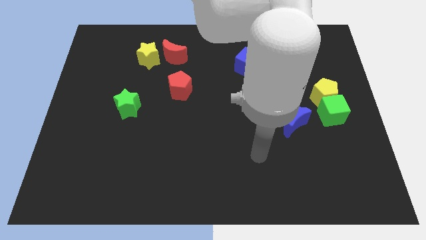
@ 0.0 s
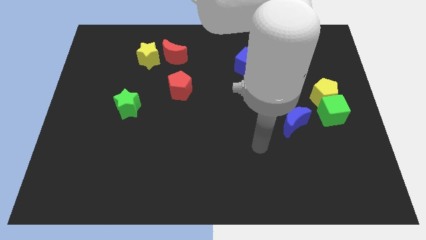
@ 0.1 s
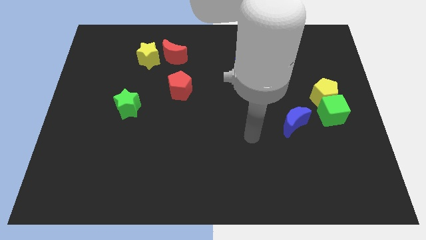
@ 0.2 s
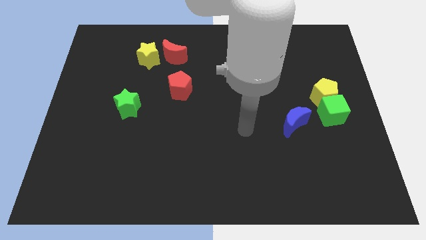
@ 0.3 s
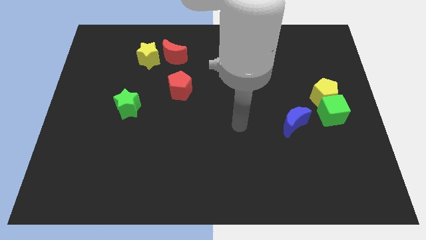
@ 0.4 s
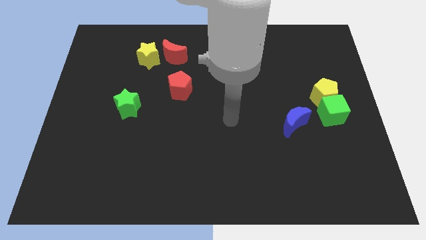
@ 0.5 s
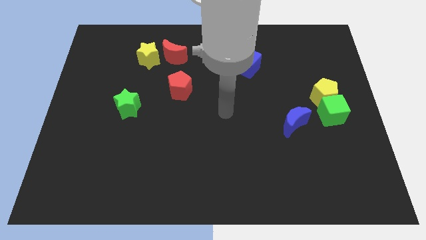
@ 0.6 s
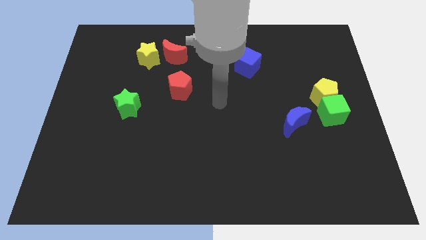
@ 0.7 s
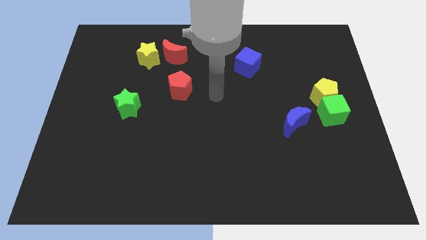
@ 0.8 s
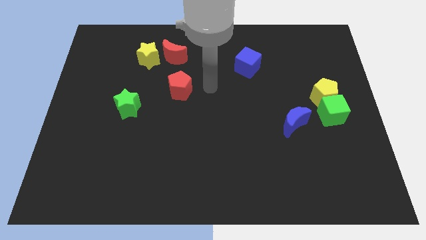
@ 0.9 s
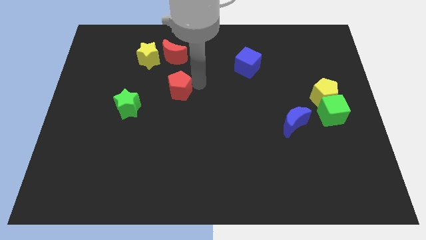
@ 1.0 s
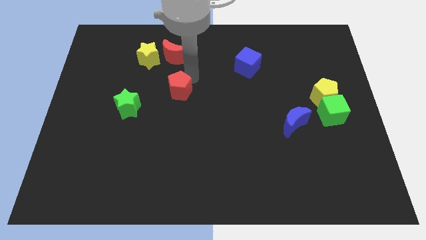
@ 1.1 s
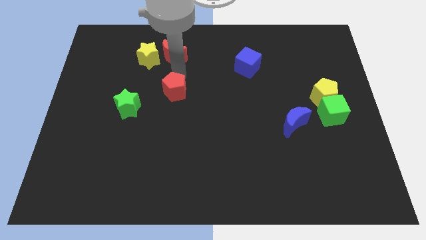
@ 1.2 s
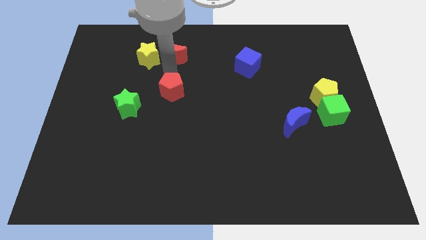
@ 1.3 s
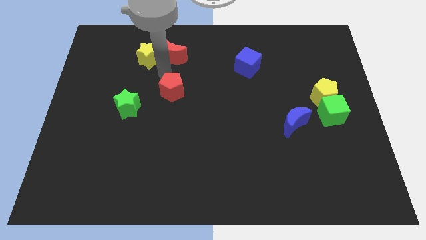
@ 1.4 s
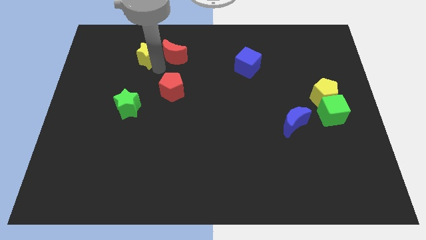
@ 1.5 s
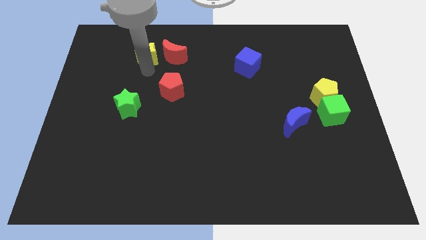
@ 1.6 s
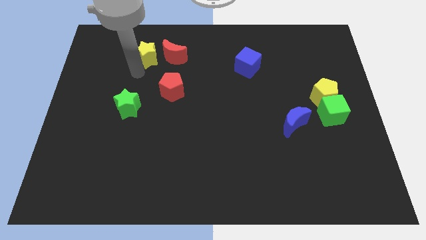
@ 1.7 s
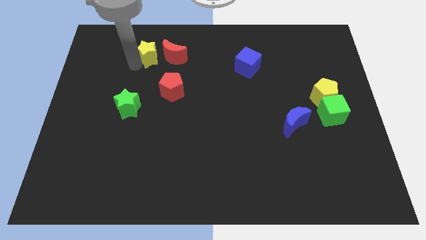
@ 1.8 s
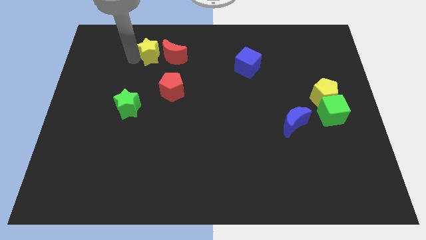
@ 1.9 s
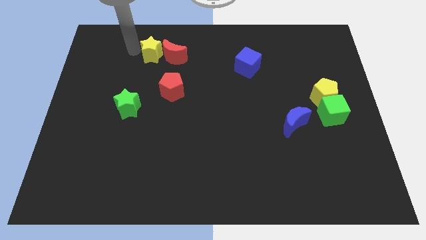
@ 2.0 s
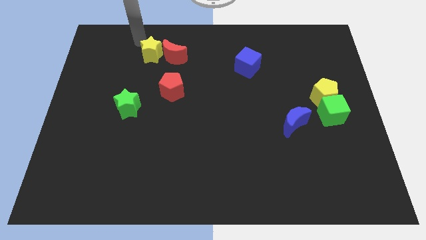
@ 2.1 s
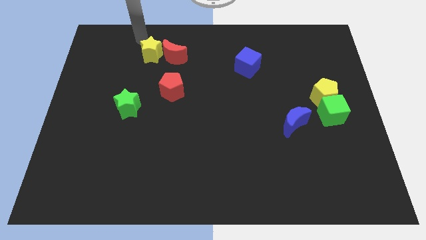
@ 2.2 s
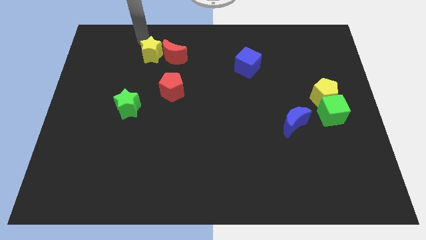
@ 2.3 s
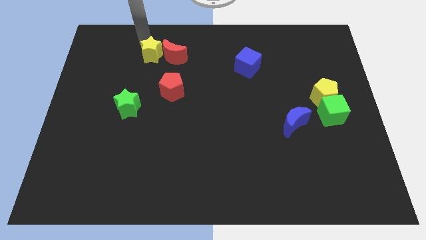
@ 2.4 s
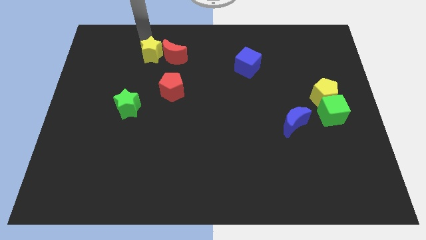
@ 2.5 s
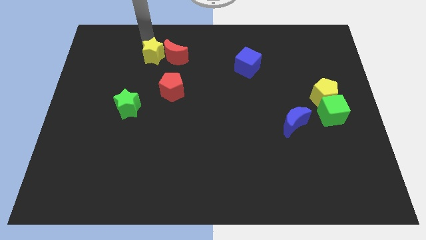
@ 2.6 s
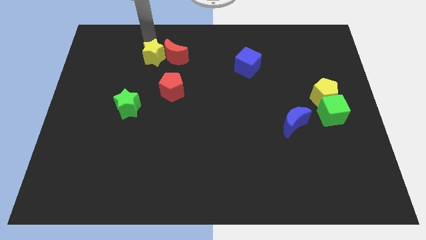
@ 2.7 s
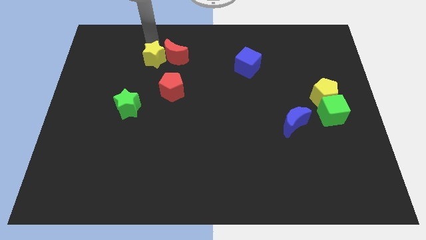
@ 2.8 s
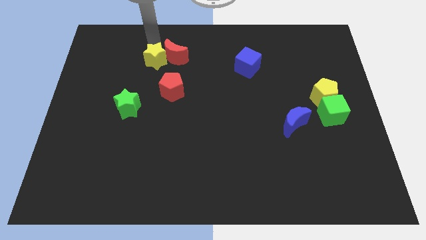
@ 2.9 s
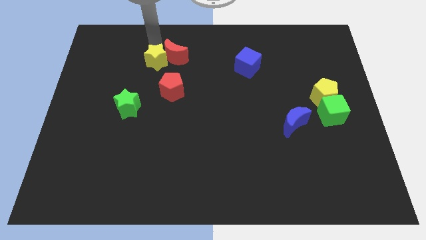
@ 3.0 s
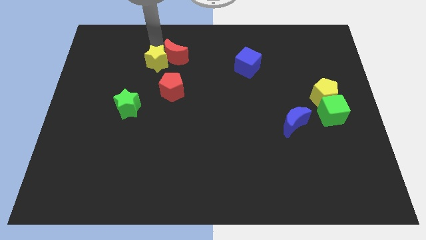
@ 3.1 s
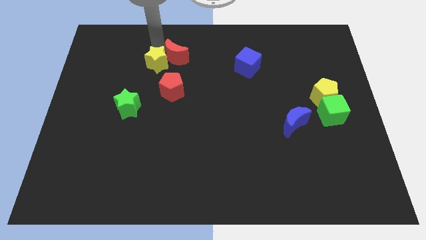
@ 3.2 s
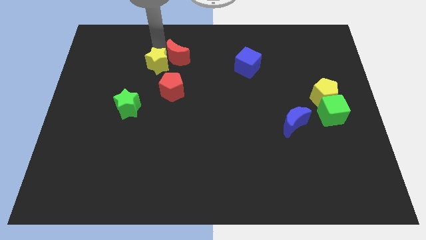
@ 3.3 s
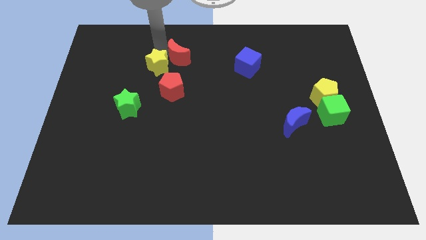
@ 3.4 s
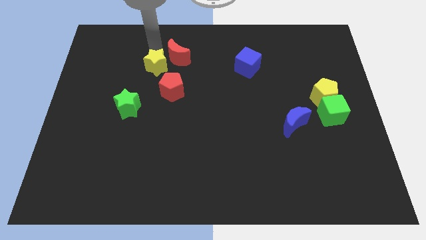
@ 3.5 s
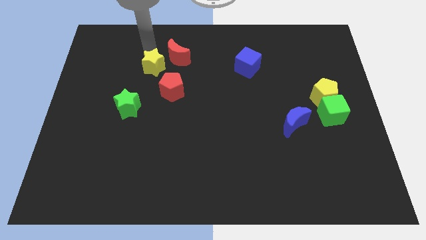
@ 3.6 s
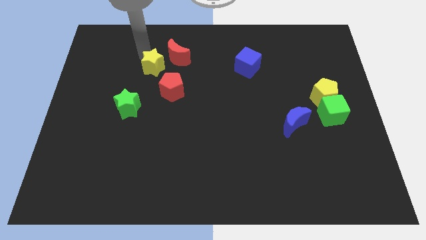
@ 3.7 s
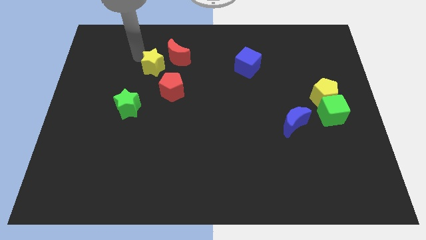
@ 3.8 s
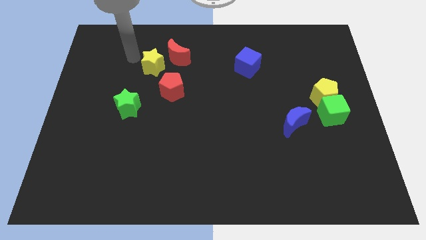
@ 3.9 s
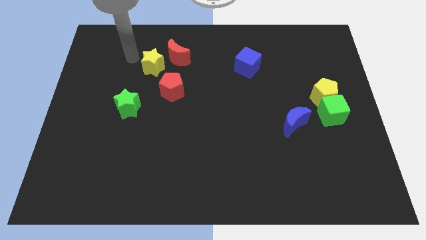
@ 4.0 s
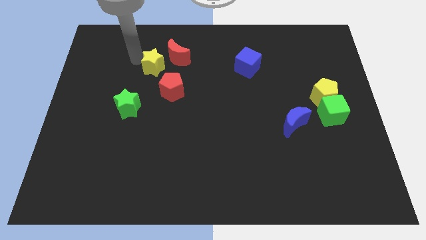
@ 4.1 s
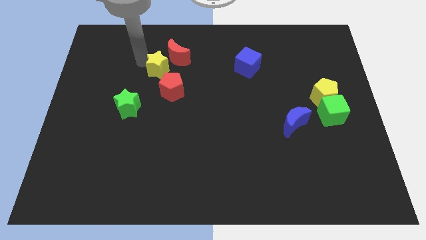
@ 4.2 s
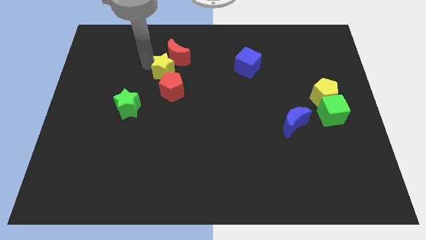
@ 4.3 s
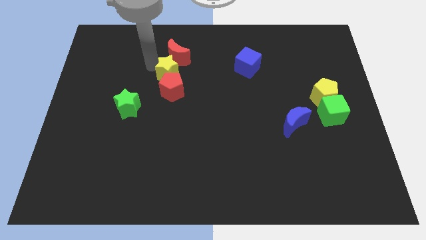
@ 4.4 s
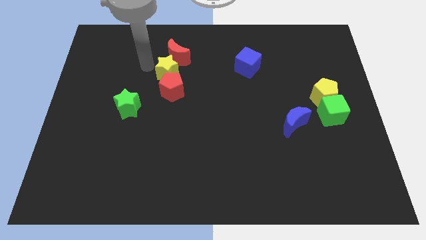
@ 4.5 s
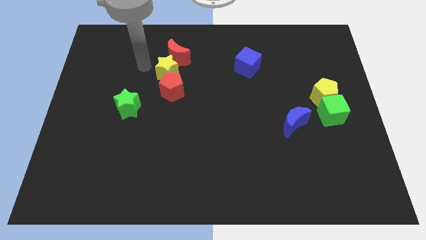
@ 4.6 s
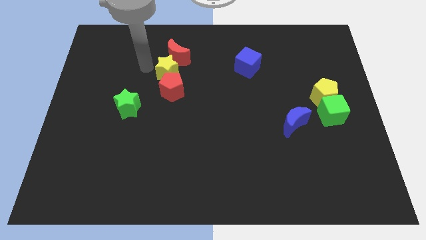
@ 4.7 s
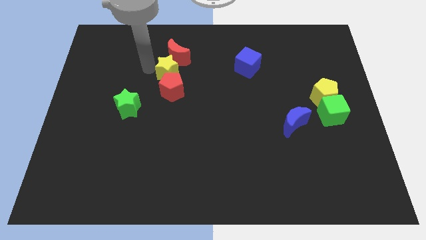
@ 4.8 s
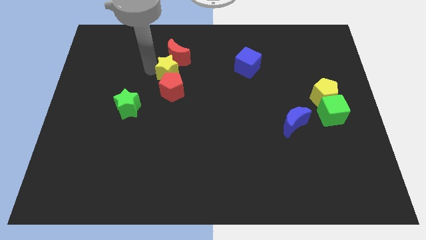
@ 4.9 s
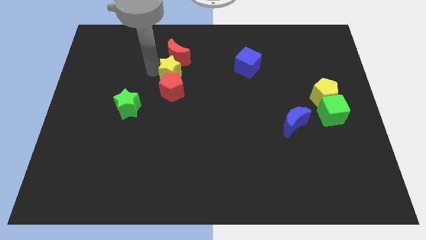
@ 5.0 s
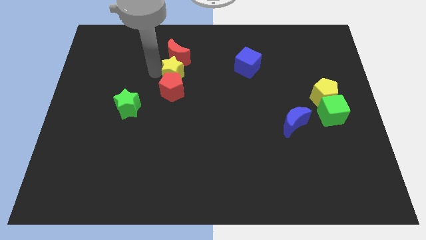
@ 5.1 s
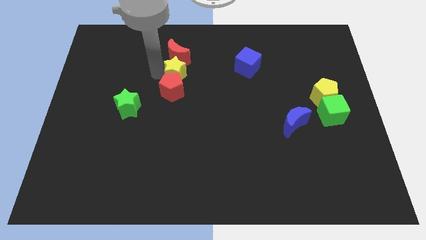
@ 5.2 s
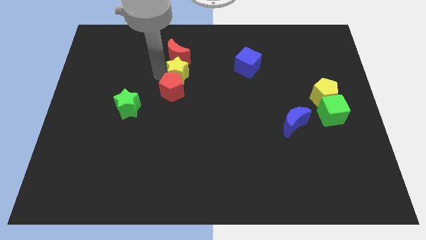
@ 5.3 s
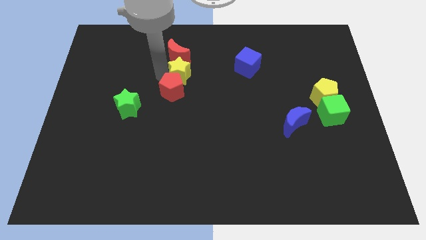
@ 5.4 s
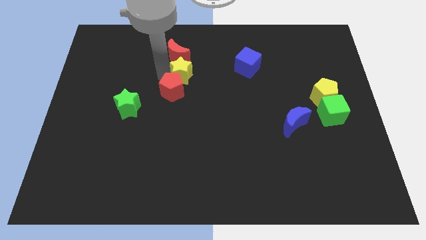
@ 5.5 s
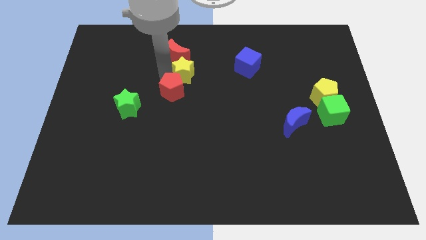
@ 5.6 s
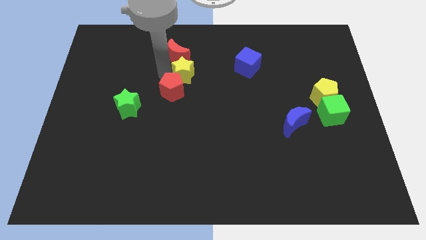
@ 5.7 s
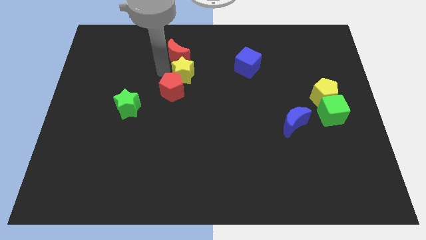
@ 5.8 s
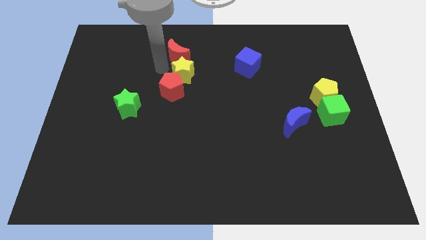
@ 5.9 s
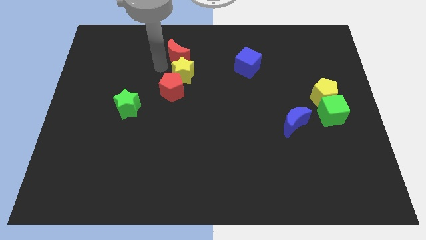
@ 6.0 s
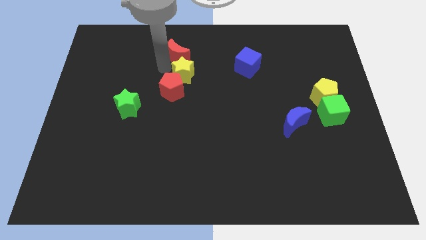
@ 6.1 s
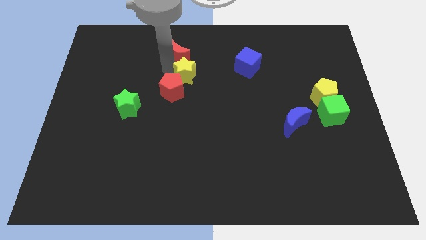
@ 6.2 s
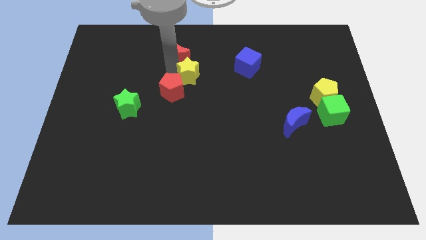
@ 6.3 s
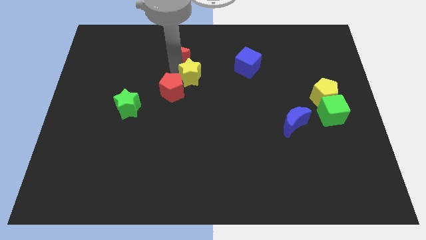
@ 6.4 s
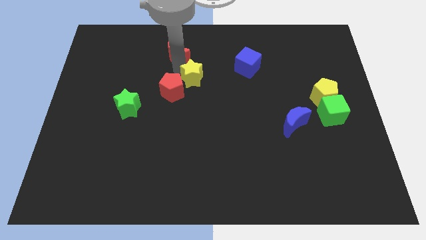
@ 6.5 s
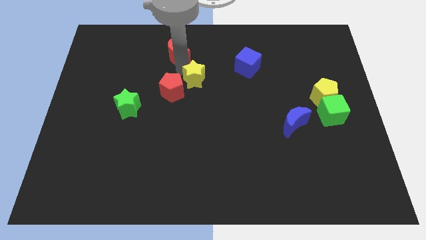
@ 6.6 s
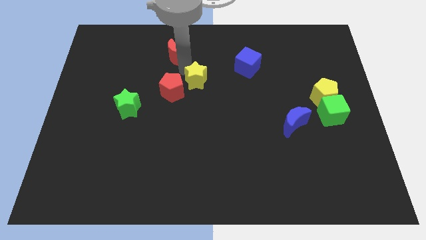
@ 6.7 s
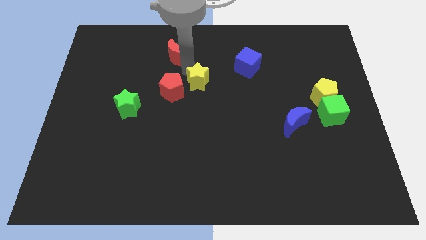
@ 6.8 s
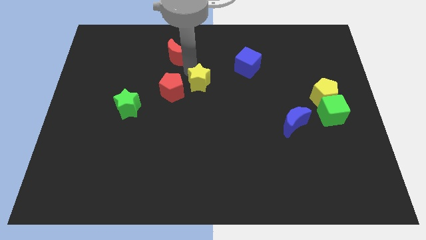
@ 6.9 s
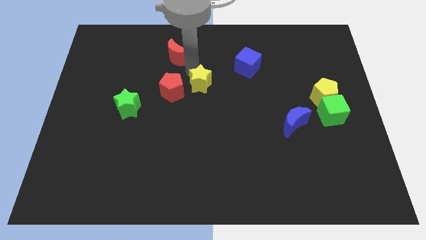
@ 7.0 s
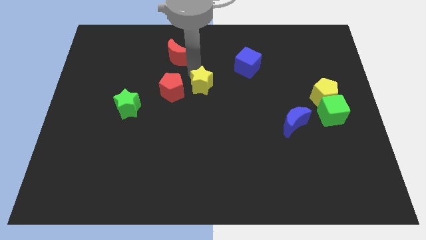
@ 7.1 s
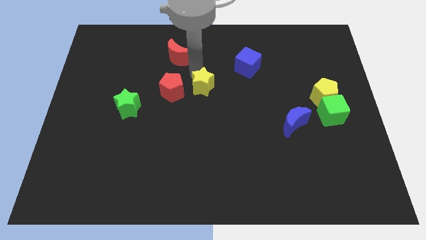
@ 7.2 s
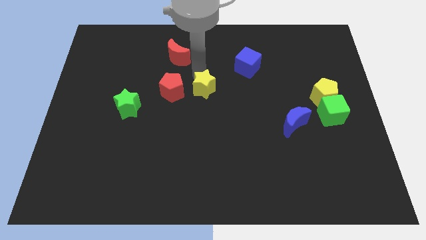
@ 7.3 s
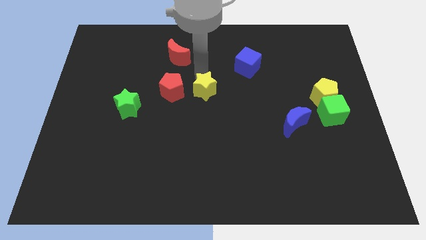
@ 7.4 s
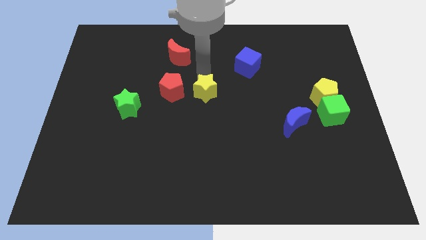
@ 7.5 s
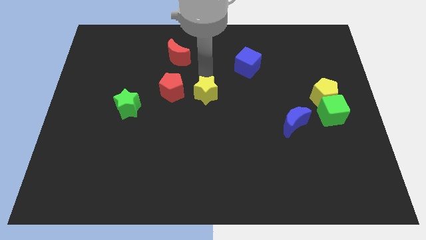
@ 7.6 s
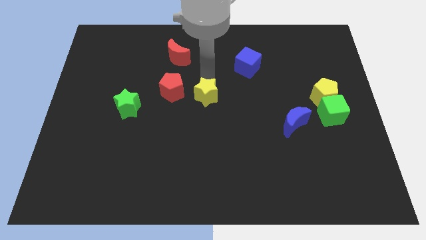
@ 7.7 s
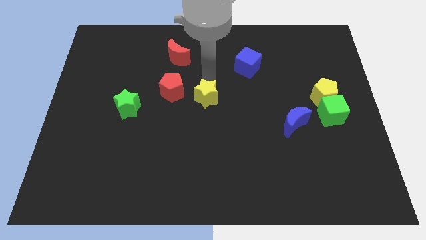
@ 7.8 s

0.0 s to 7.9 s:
move the yellow star down and right diagonally
